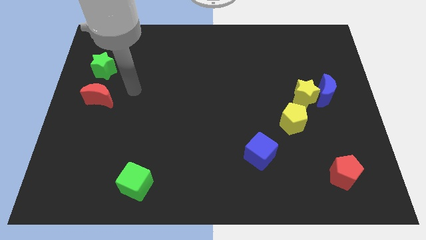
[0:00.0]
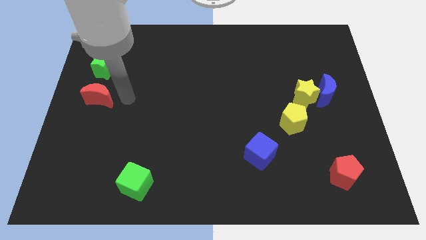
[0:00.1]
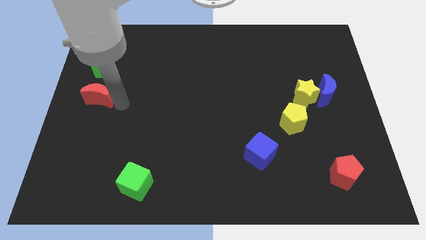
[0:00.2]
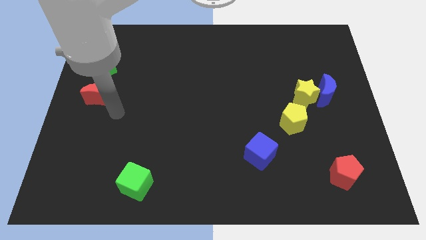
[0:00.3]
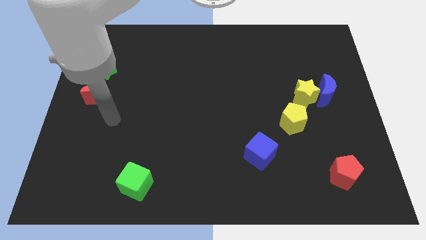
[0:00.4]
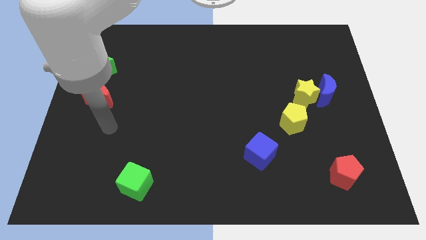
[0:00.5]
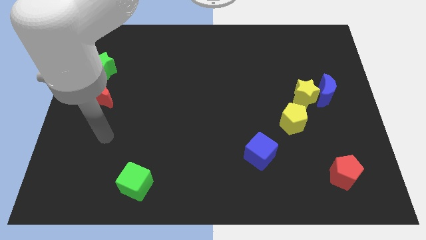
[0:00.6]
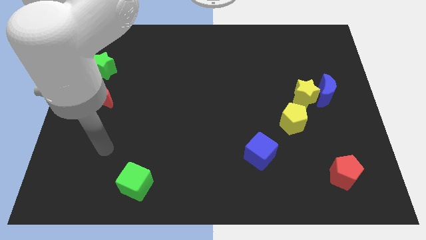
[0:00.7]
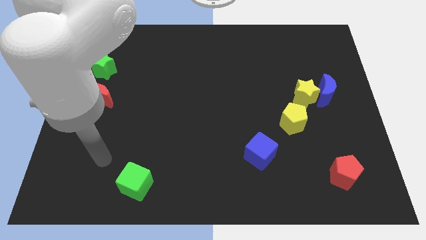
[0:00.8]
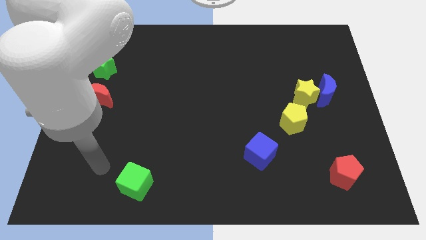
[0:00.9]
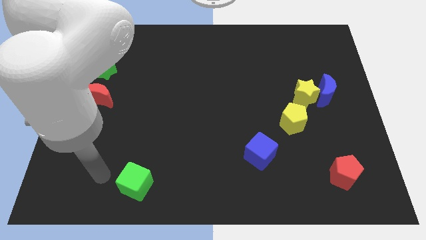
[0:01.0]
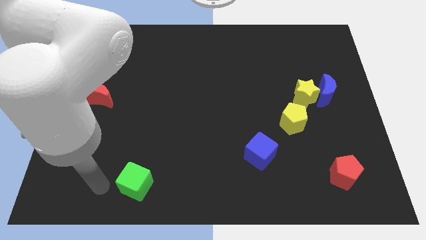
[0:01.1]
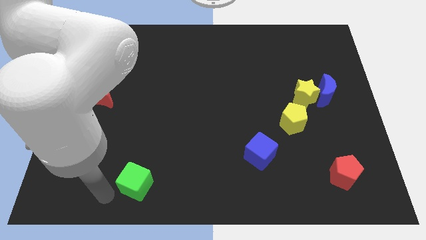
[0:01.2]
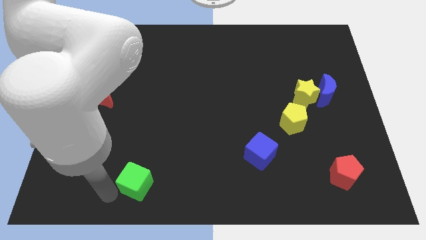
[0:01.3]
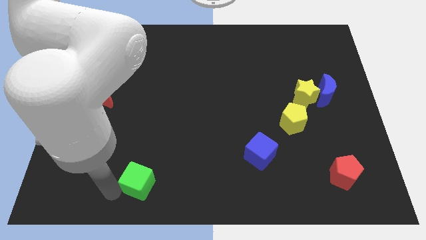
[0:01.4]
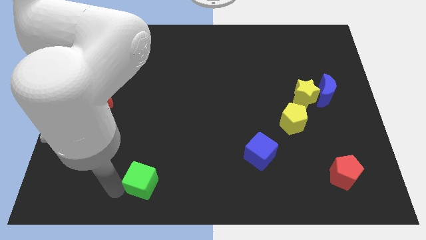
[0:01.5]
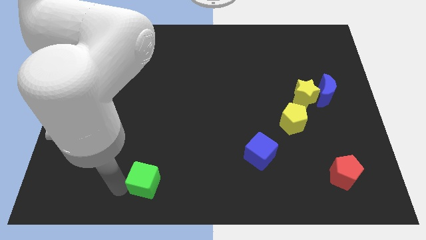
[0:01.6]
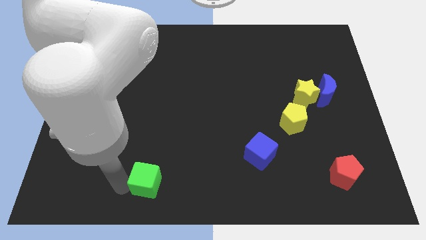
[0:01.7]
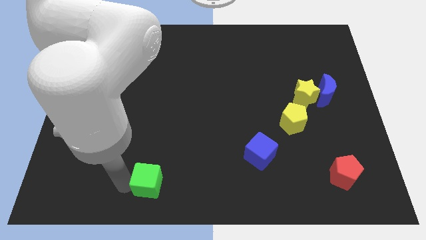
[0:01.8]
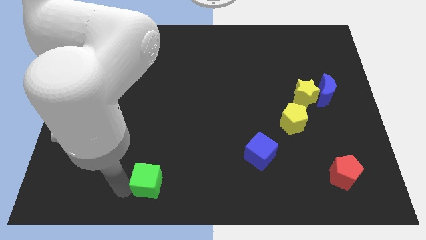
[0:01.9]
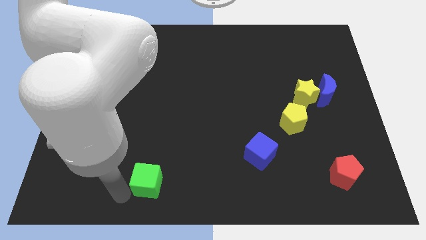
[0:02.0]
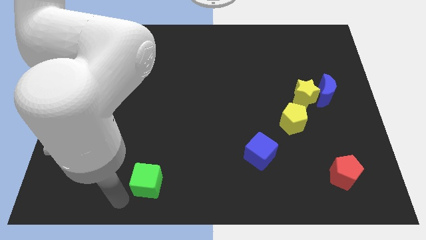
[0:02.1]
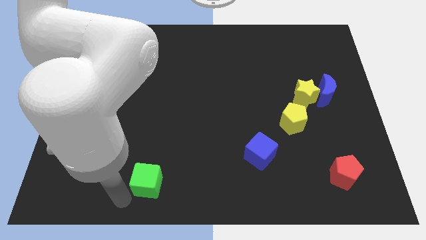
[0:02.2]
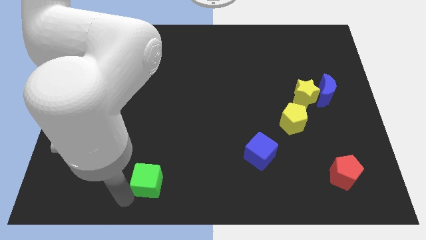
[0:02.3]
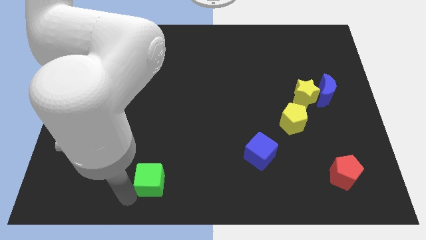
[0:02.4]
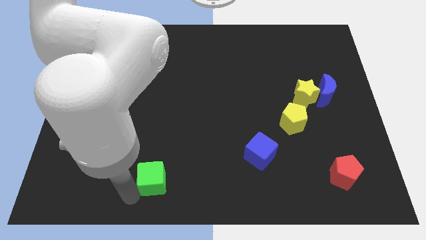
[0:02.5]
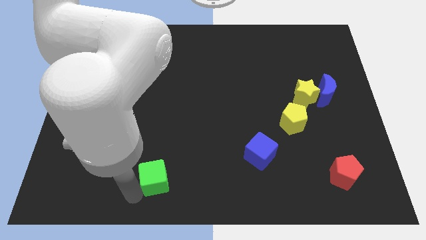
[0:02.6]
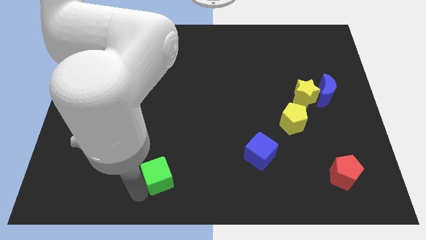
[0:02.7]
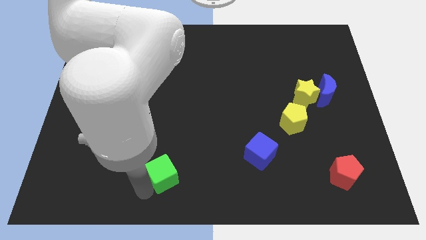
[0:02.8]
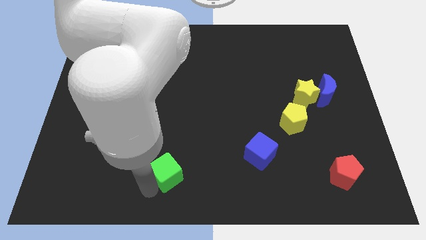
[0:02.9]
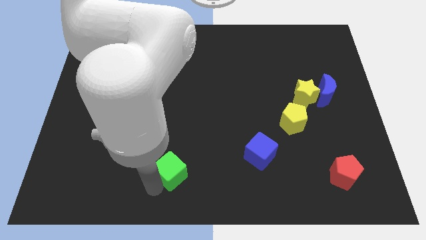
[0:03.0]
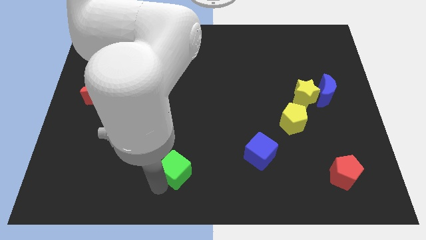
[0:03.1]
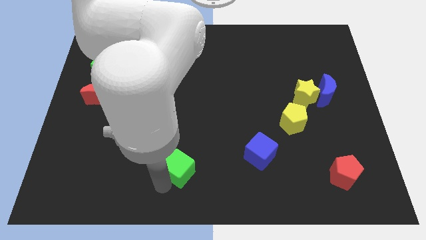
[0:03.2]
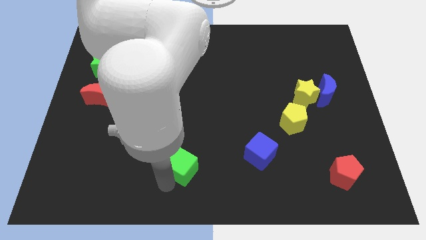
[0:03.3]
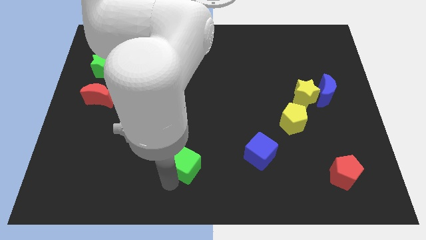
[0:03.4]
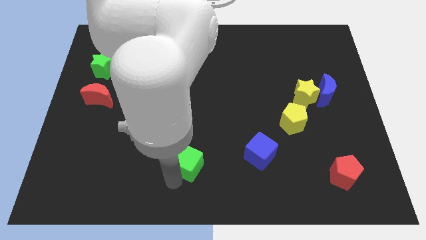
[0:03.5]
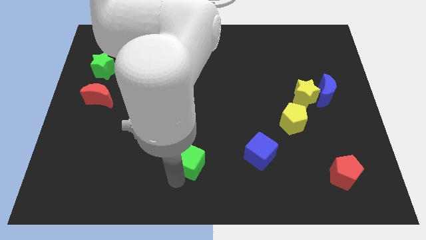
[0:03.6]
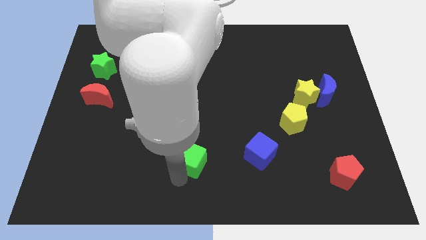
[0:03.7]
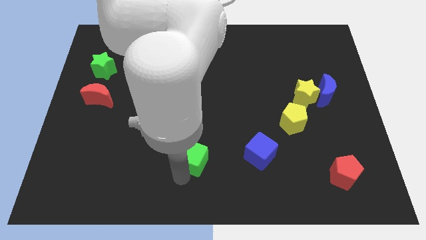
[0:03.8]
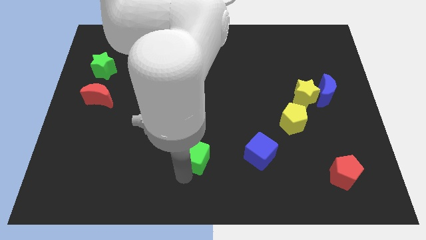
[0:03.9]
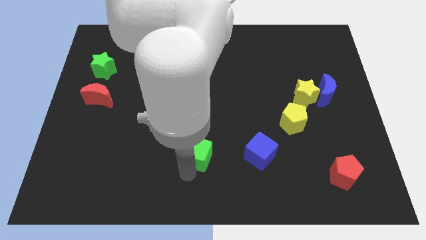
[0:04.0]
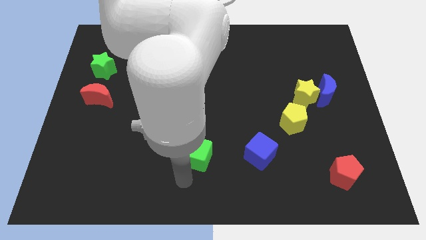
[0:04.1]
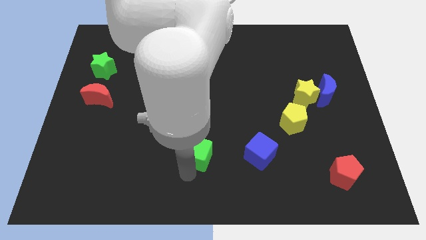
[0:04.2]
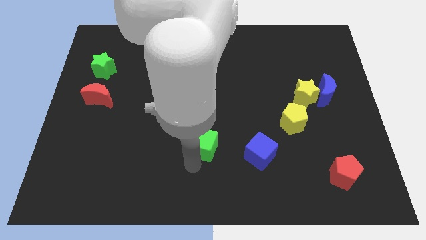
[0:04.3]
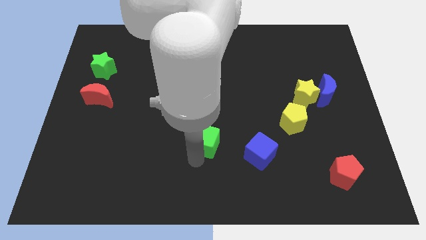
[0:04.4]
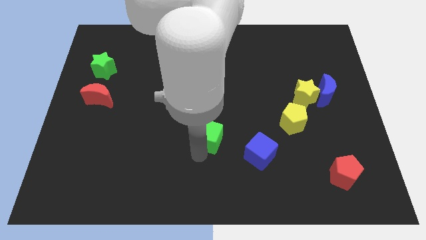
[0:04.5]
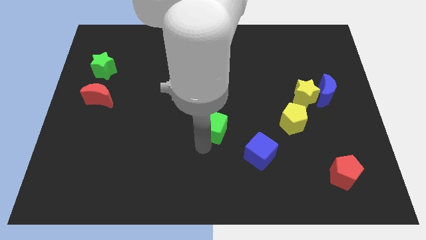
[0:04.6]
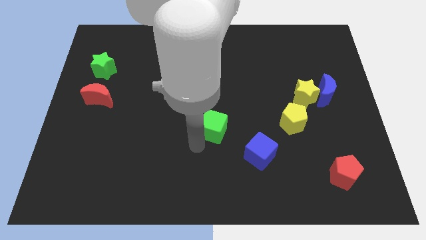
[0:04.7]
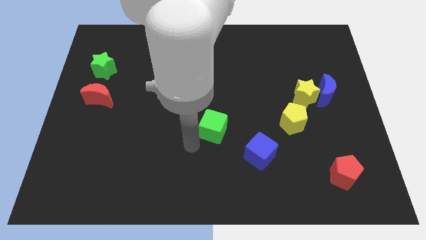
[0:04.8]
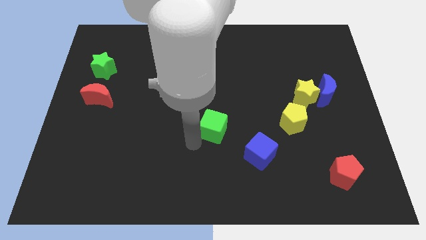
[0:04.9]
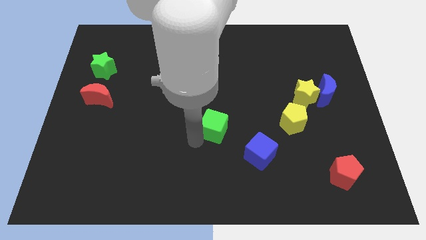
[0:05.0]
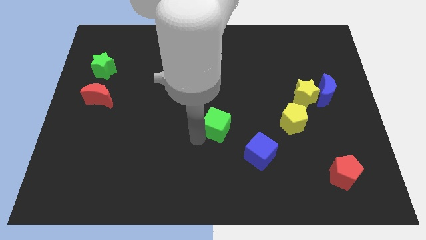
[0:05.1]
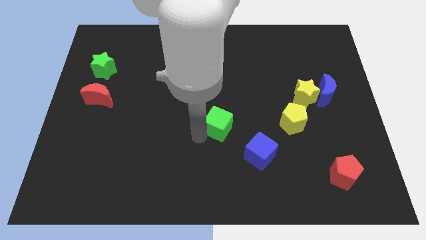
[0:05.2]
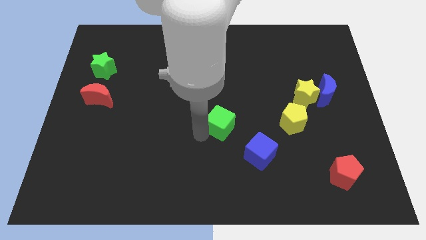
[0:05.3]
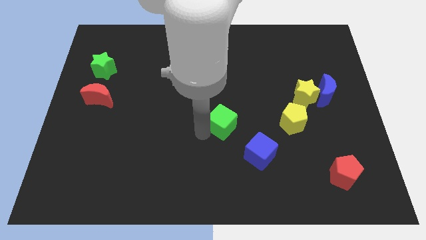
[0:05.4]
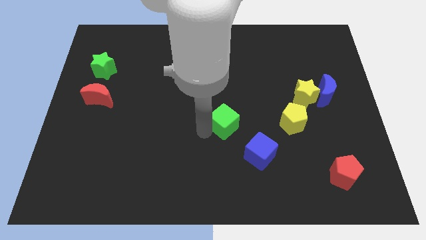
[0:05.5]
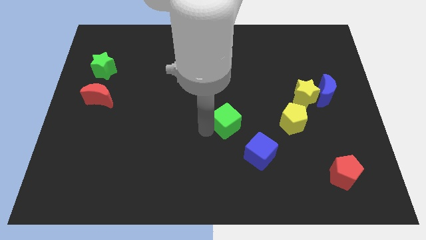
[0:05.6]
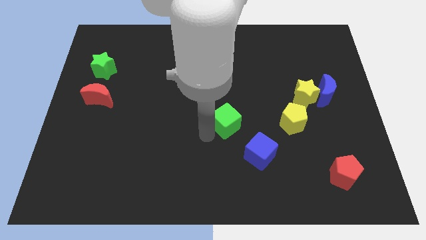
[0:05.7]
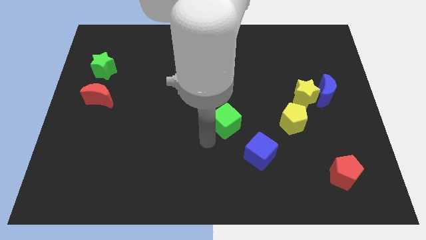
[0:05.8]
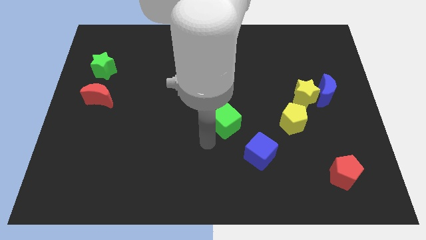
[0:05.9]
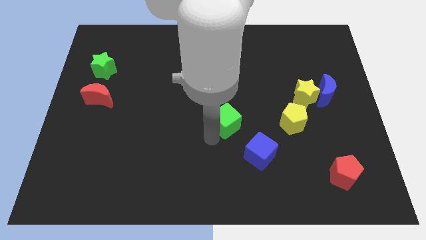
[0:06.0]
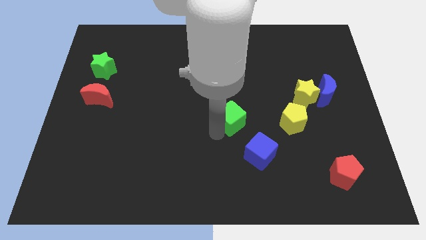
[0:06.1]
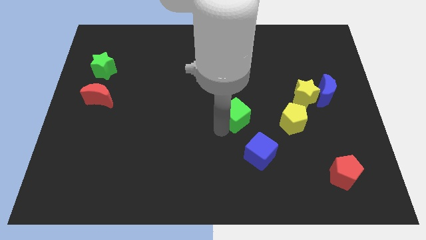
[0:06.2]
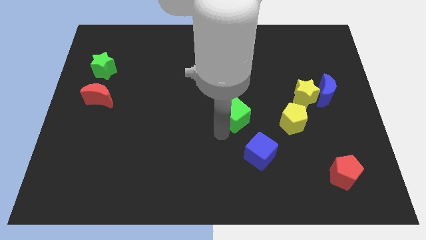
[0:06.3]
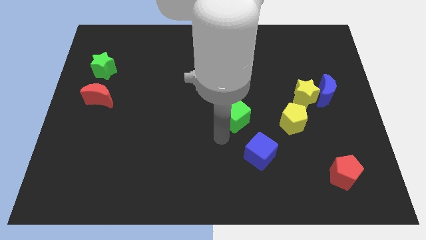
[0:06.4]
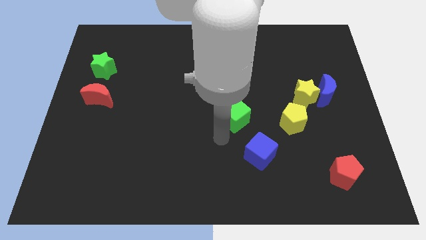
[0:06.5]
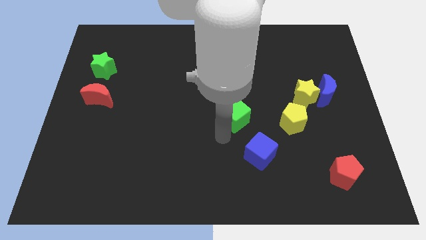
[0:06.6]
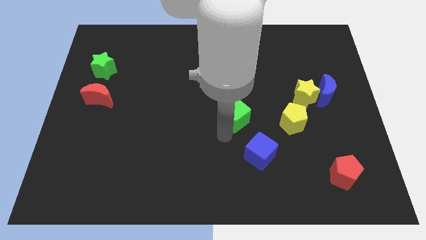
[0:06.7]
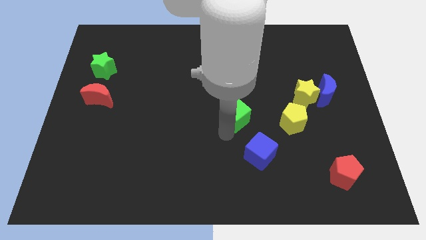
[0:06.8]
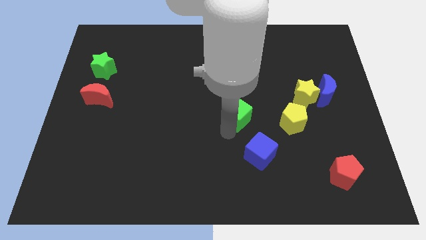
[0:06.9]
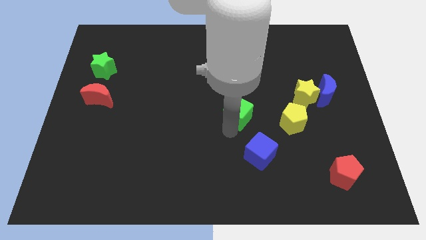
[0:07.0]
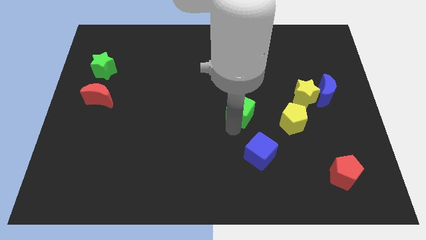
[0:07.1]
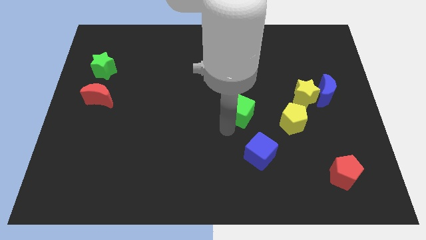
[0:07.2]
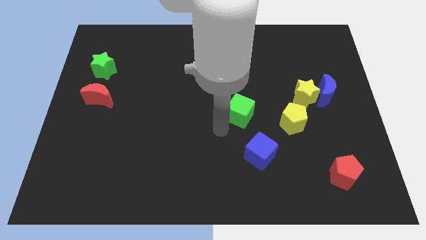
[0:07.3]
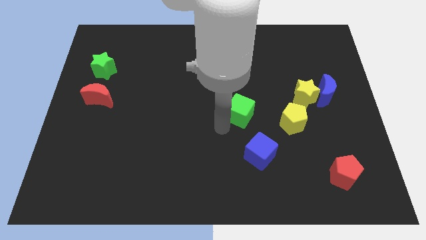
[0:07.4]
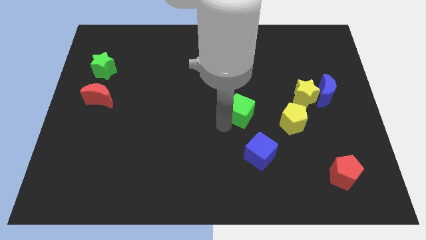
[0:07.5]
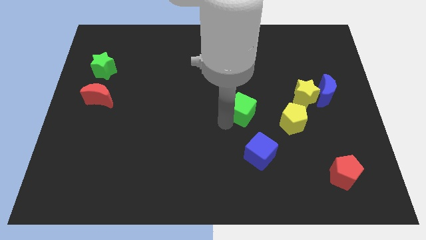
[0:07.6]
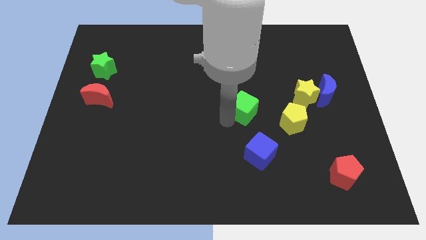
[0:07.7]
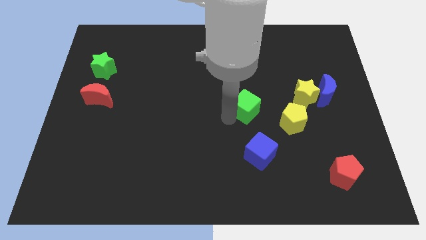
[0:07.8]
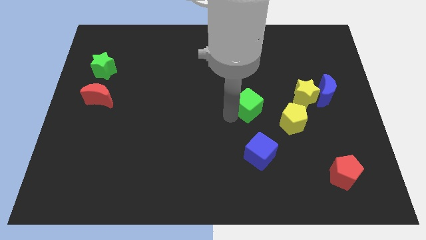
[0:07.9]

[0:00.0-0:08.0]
put the green cube to the left side of the yellow star
